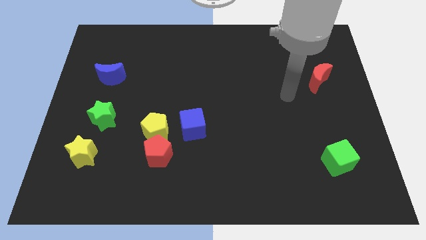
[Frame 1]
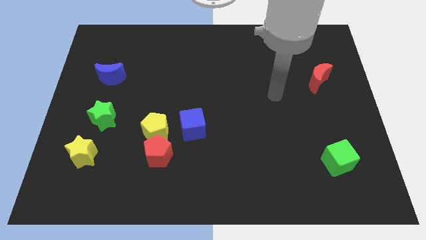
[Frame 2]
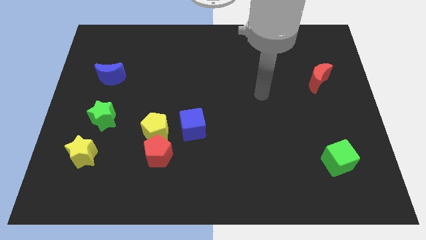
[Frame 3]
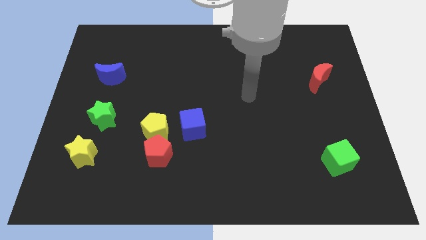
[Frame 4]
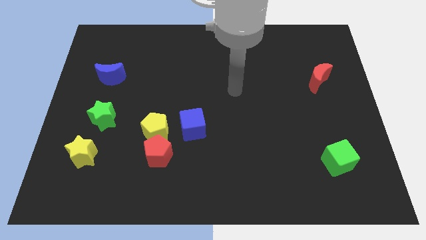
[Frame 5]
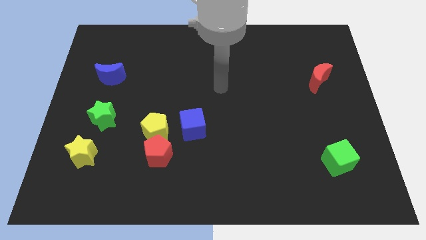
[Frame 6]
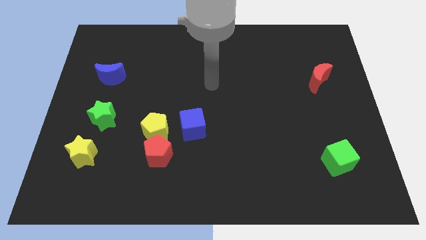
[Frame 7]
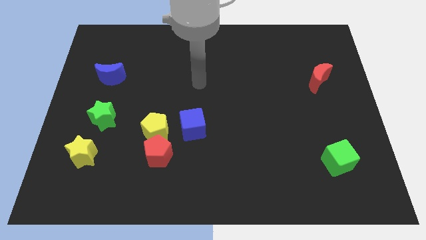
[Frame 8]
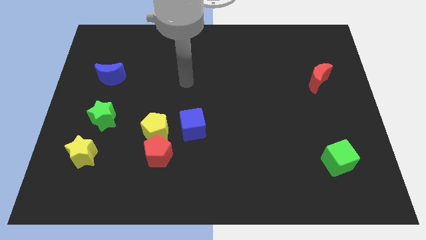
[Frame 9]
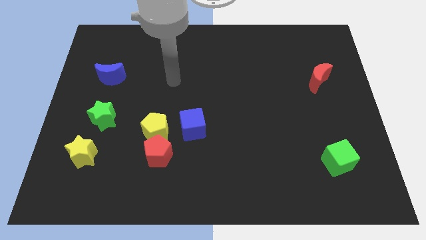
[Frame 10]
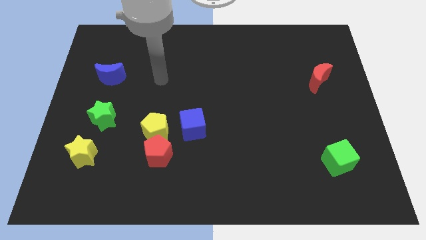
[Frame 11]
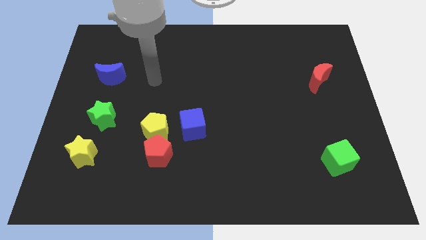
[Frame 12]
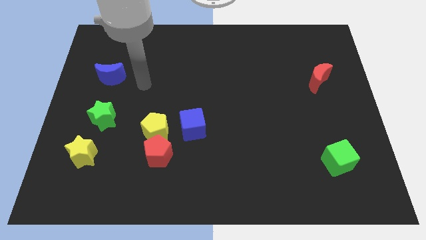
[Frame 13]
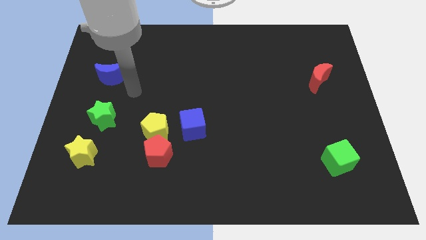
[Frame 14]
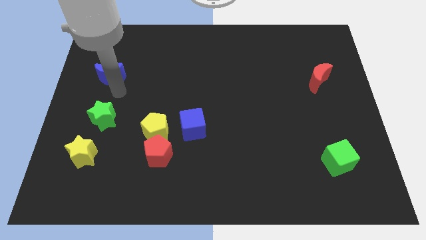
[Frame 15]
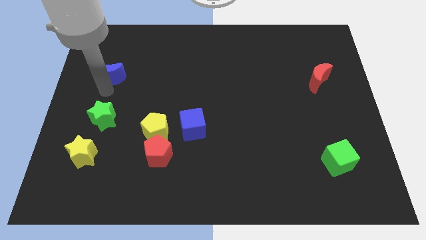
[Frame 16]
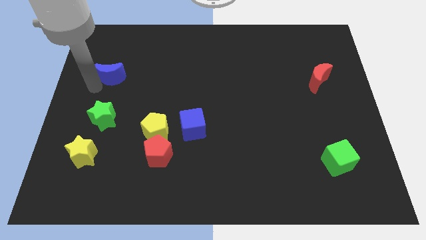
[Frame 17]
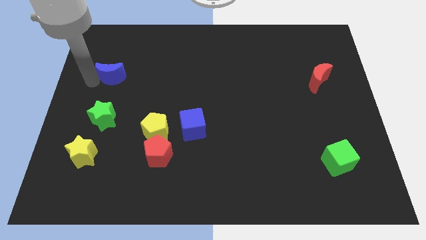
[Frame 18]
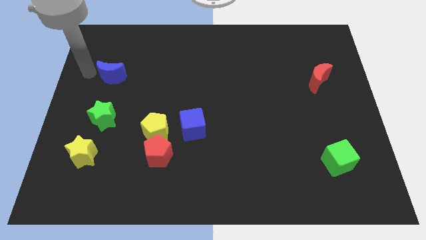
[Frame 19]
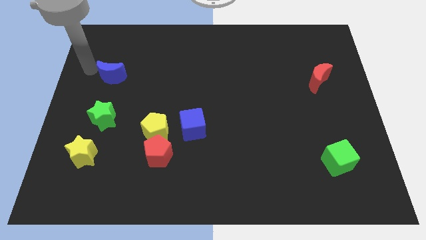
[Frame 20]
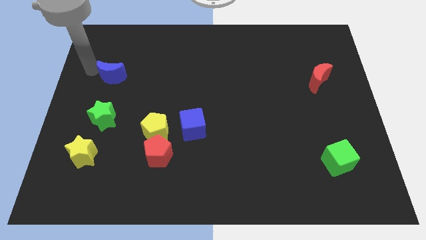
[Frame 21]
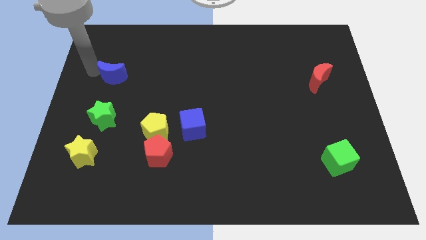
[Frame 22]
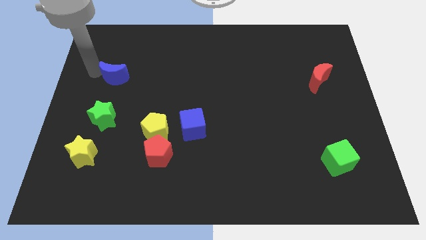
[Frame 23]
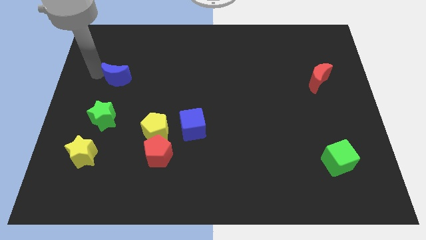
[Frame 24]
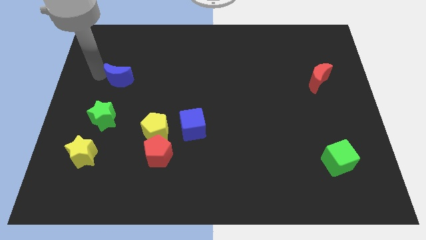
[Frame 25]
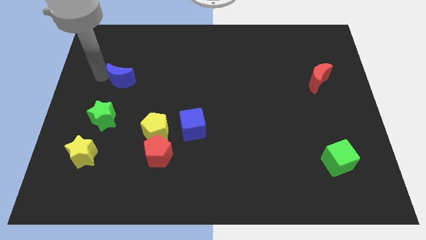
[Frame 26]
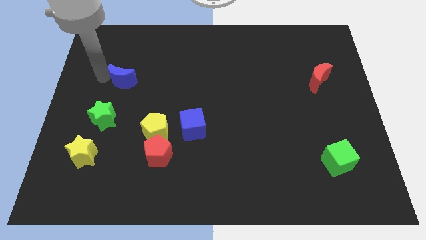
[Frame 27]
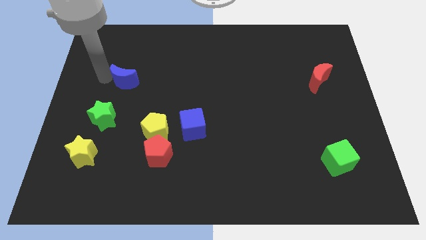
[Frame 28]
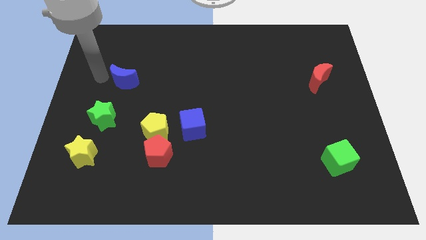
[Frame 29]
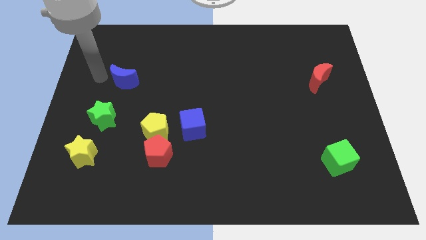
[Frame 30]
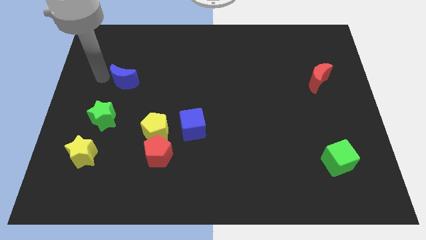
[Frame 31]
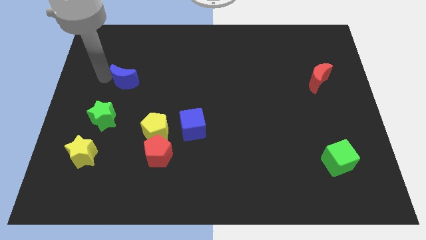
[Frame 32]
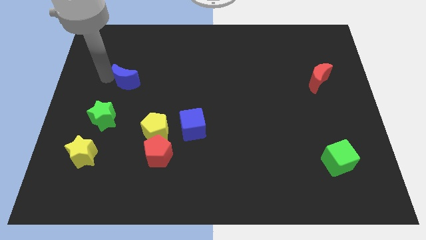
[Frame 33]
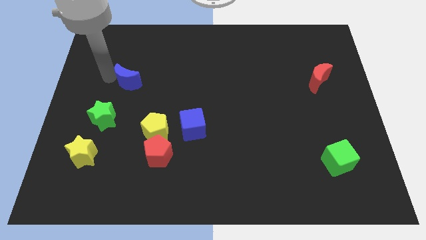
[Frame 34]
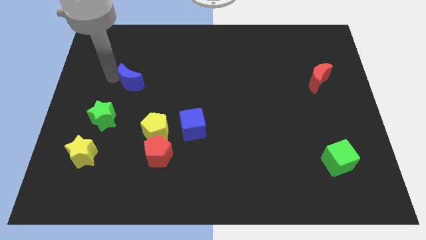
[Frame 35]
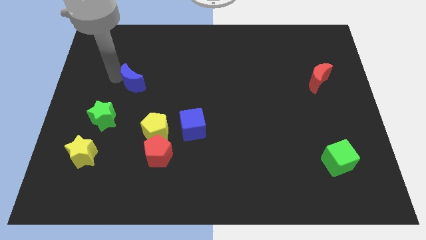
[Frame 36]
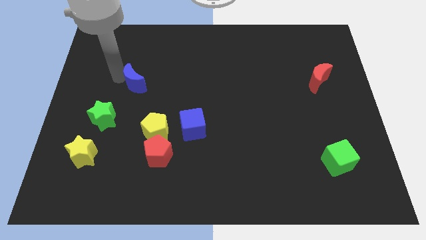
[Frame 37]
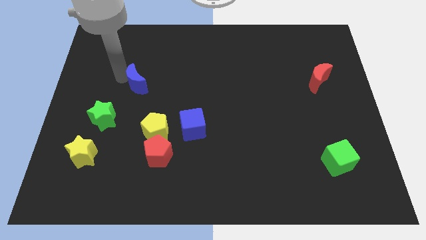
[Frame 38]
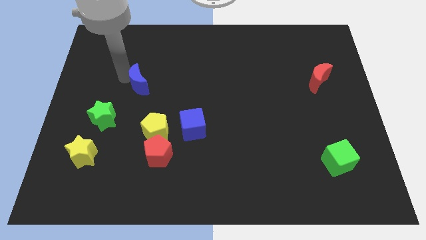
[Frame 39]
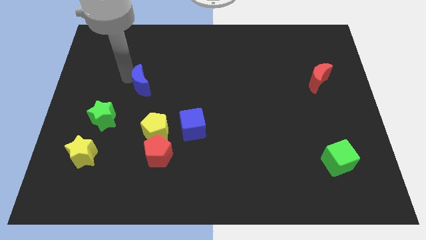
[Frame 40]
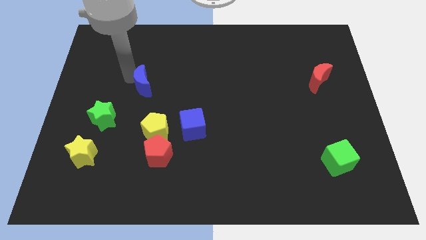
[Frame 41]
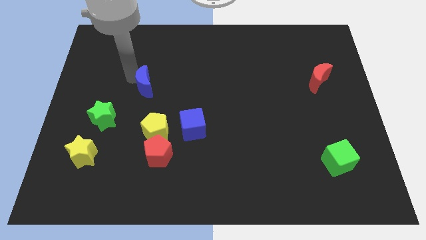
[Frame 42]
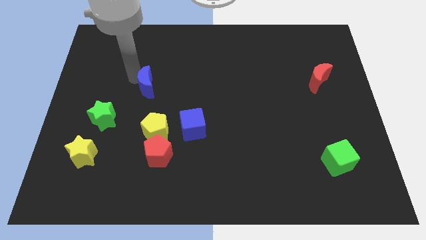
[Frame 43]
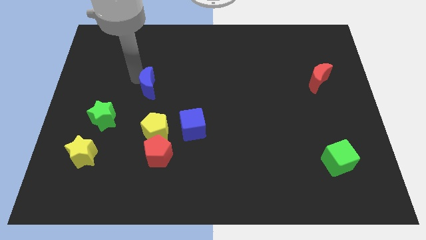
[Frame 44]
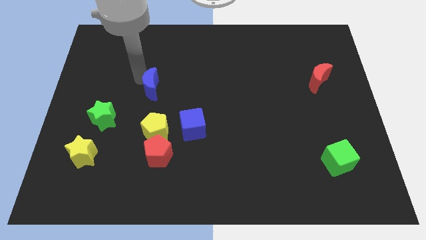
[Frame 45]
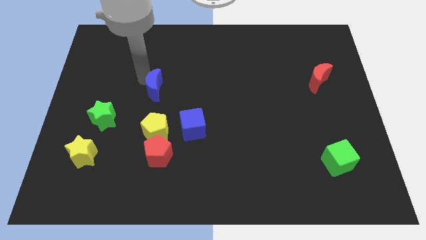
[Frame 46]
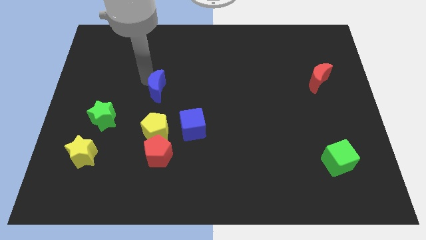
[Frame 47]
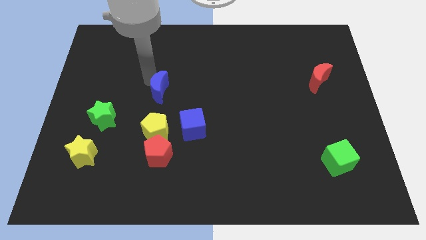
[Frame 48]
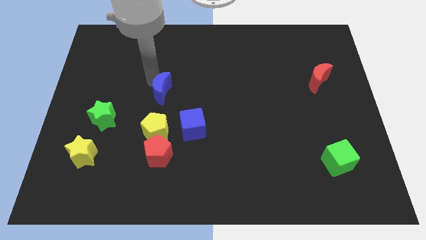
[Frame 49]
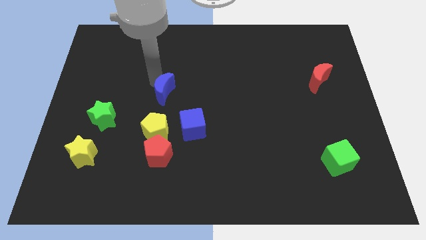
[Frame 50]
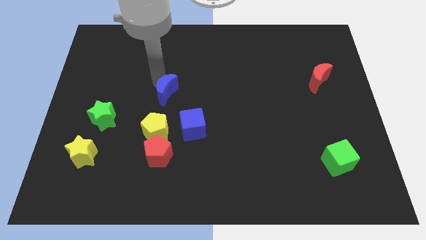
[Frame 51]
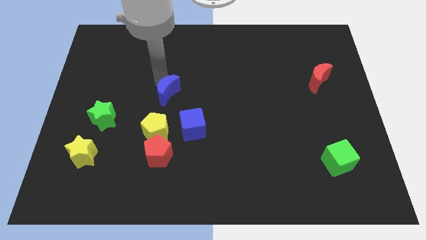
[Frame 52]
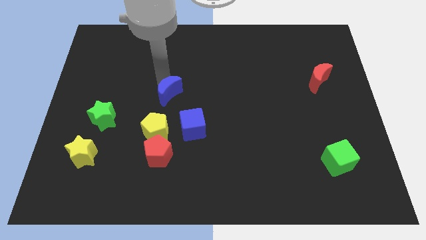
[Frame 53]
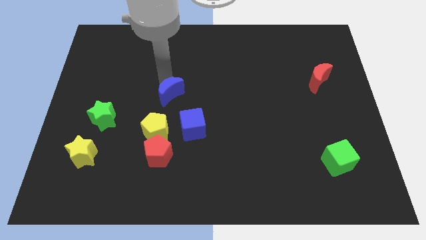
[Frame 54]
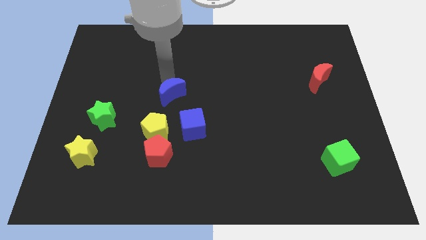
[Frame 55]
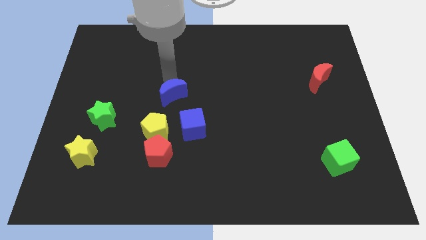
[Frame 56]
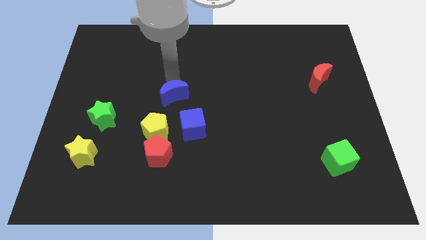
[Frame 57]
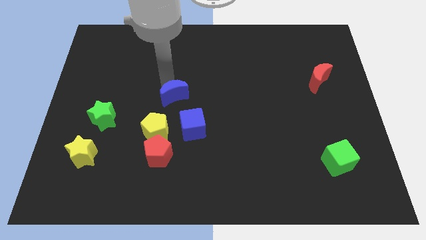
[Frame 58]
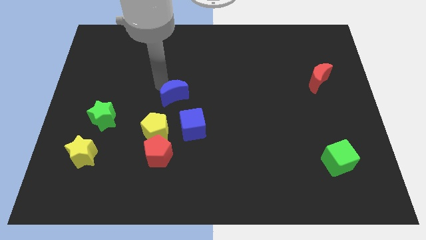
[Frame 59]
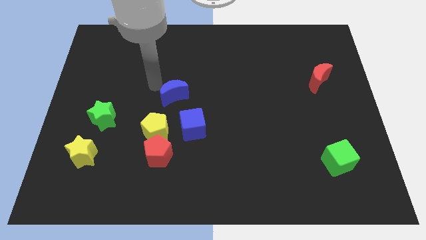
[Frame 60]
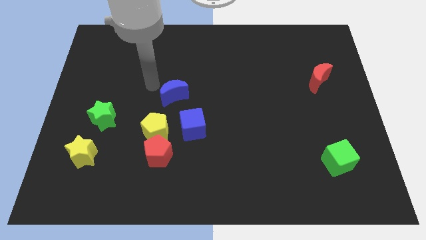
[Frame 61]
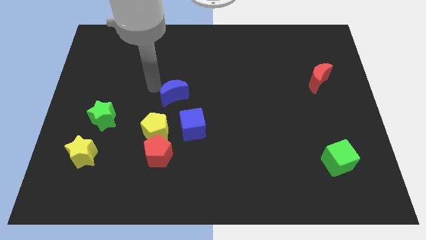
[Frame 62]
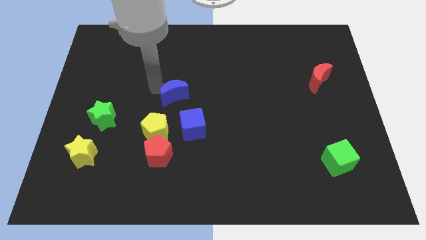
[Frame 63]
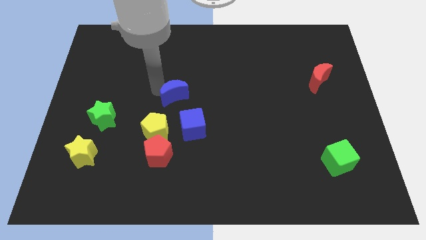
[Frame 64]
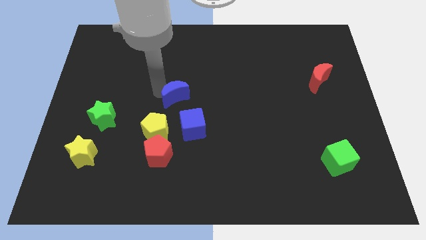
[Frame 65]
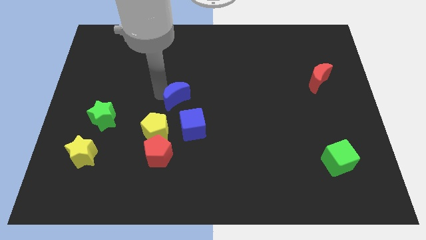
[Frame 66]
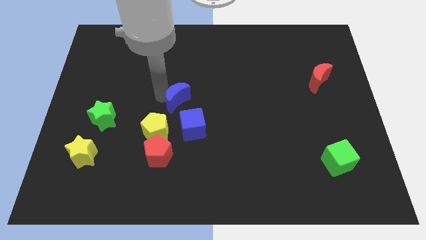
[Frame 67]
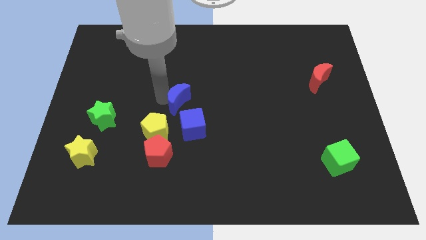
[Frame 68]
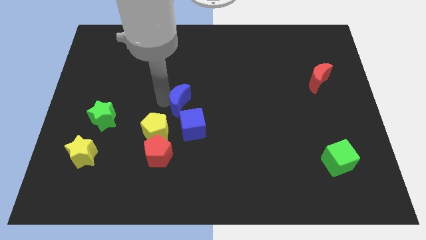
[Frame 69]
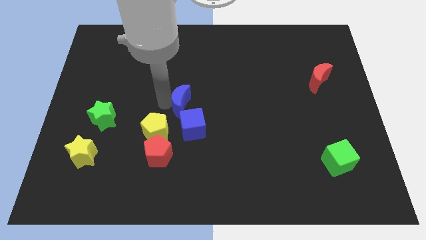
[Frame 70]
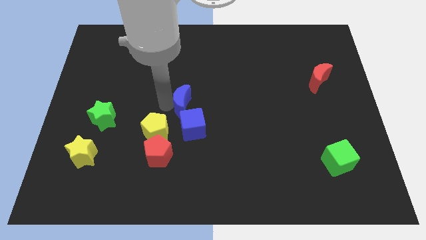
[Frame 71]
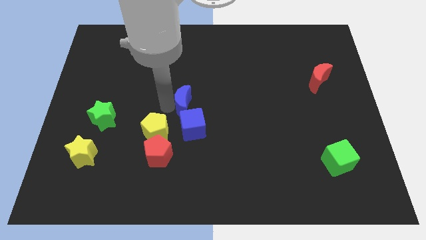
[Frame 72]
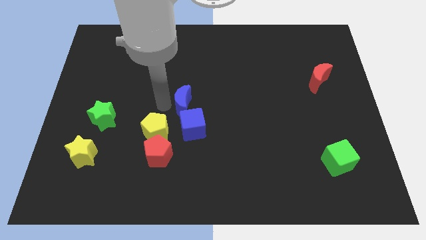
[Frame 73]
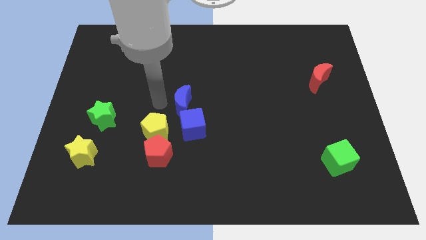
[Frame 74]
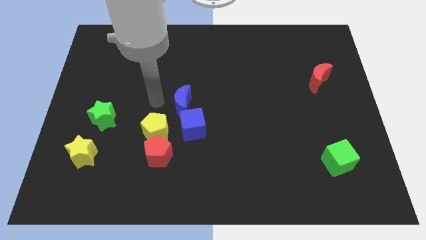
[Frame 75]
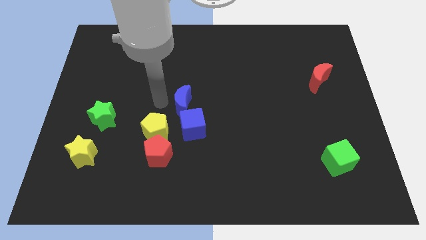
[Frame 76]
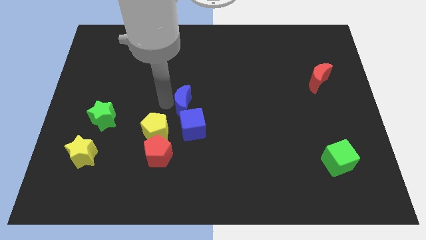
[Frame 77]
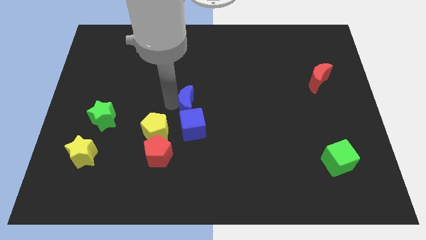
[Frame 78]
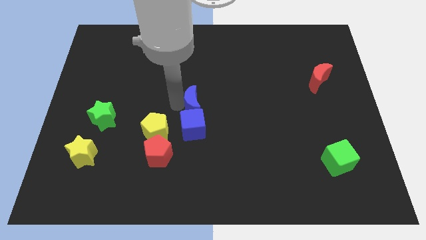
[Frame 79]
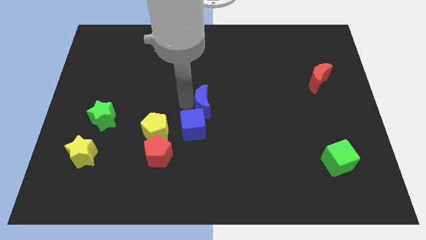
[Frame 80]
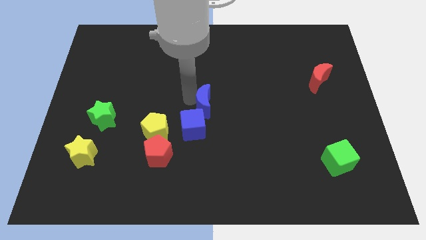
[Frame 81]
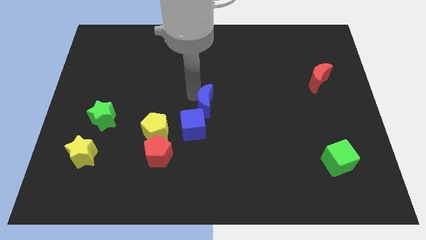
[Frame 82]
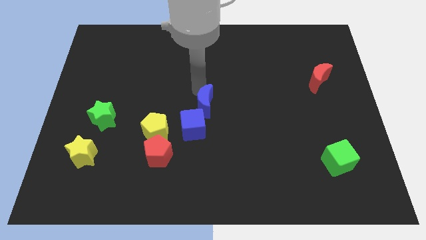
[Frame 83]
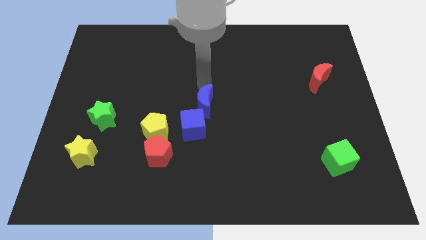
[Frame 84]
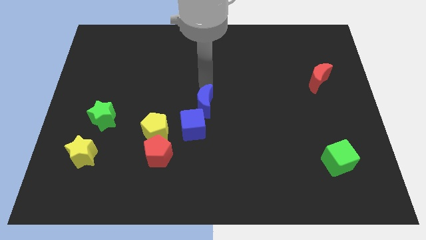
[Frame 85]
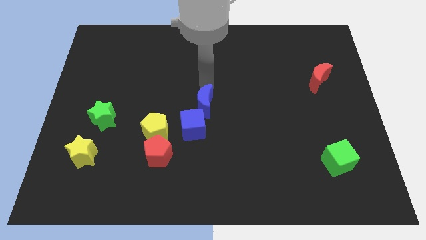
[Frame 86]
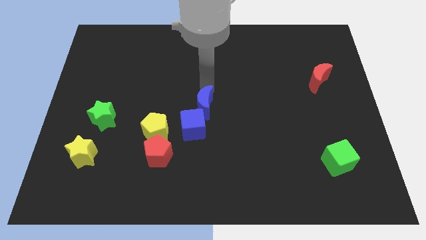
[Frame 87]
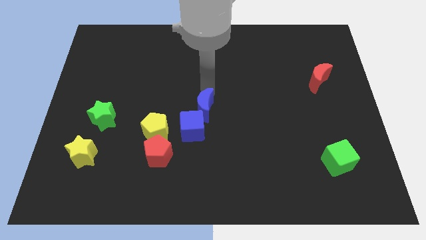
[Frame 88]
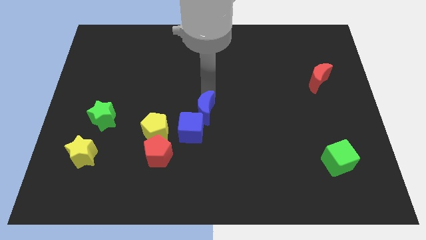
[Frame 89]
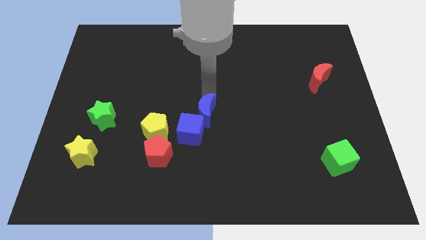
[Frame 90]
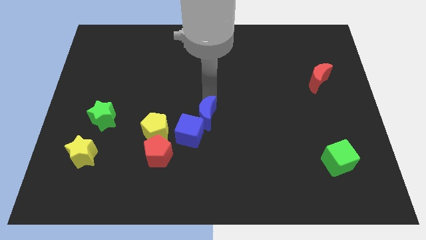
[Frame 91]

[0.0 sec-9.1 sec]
put the blue moon to the right side of the yellow pentagon
